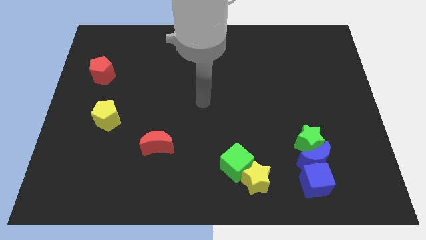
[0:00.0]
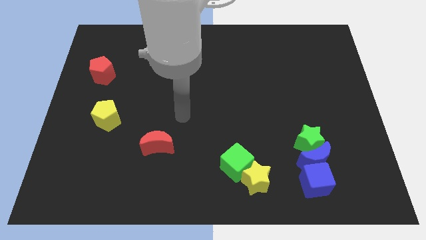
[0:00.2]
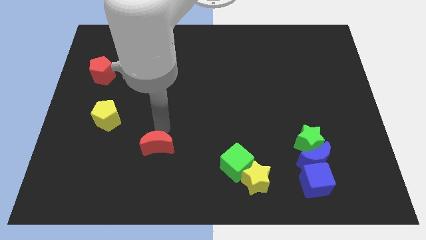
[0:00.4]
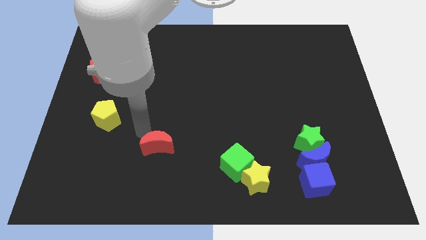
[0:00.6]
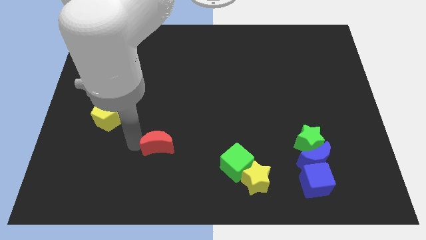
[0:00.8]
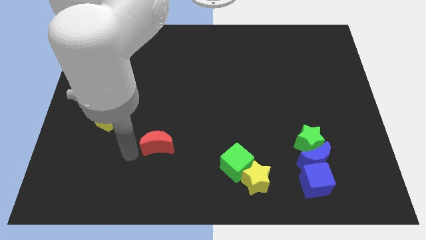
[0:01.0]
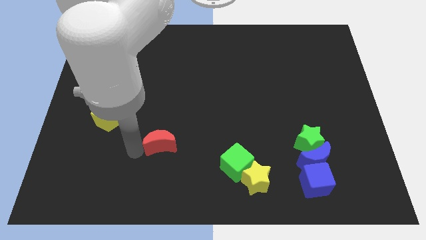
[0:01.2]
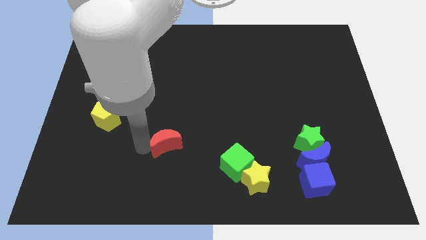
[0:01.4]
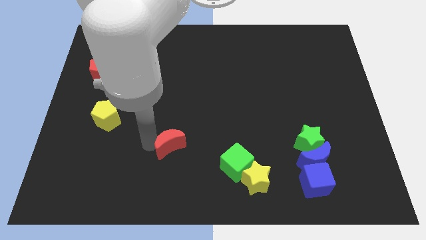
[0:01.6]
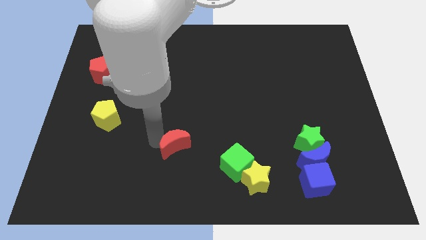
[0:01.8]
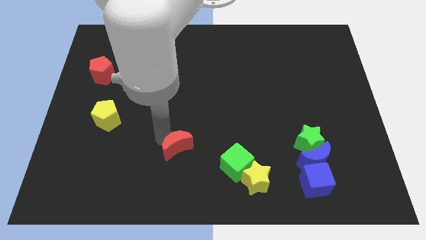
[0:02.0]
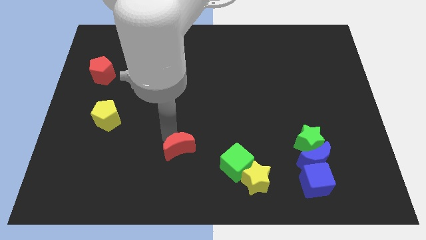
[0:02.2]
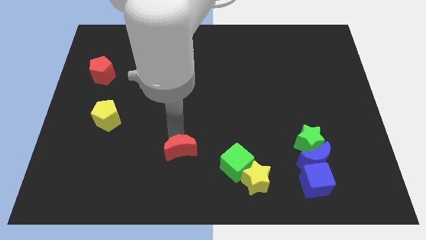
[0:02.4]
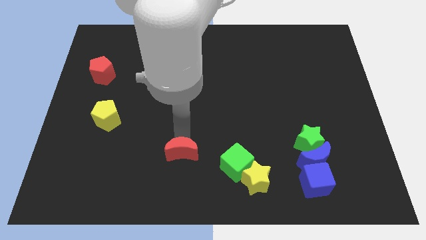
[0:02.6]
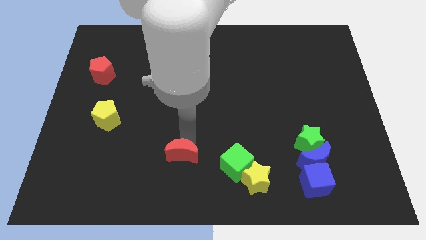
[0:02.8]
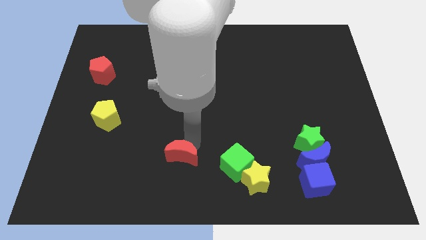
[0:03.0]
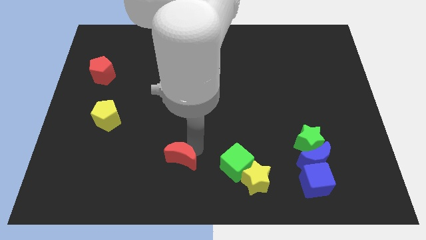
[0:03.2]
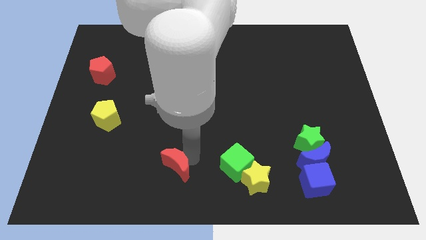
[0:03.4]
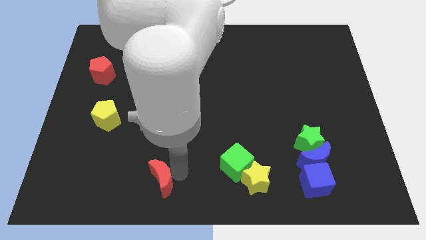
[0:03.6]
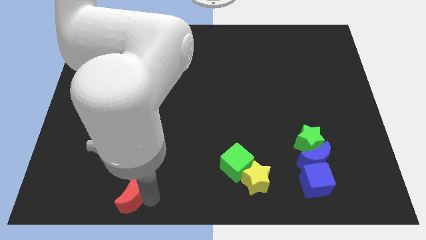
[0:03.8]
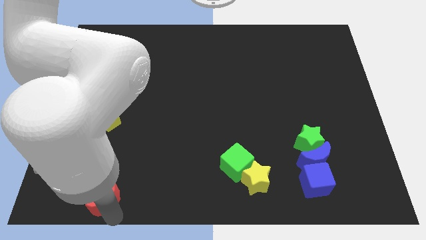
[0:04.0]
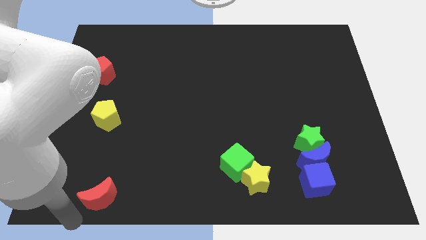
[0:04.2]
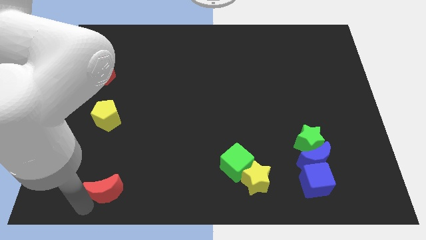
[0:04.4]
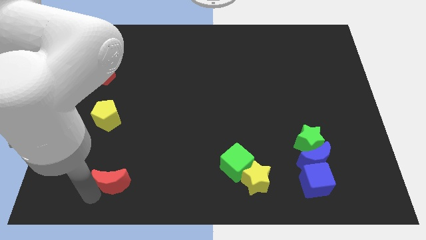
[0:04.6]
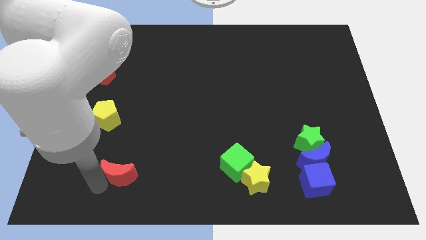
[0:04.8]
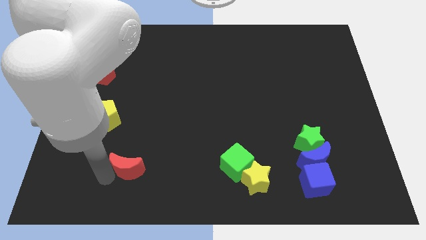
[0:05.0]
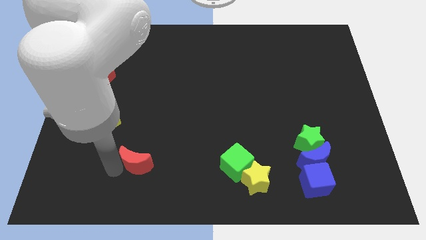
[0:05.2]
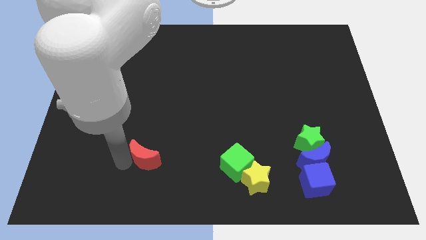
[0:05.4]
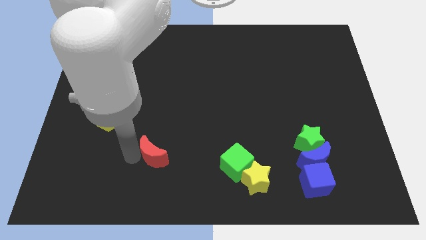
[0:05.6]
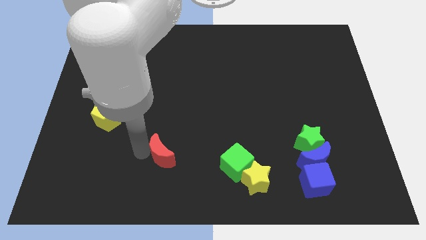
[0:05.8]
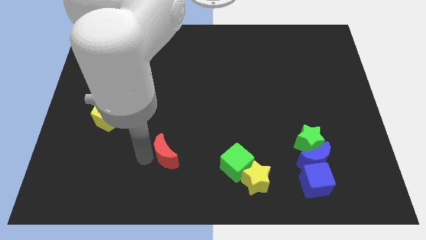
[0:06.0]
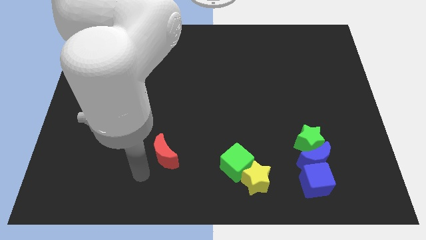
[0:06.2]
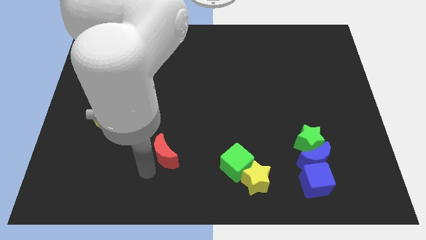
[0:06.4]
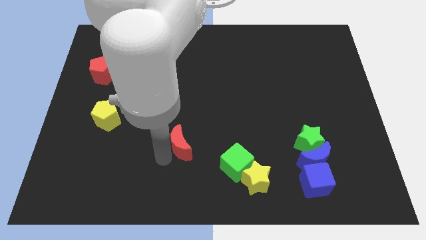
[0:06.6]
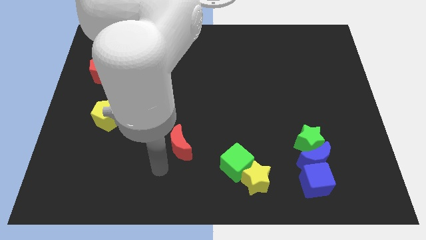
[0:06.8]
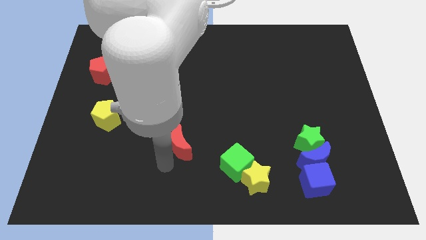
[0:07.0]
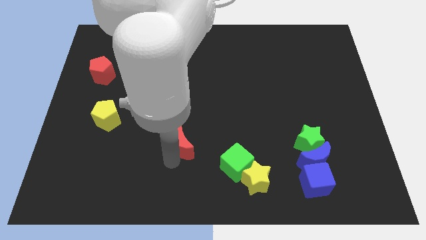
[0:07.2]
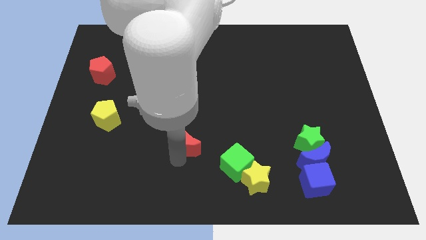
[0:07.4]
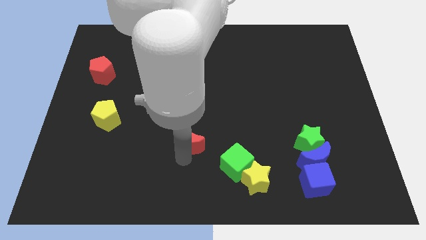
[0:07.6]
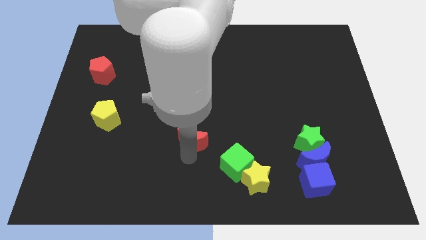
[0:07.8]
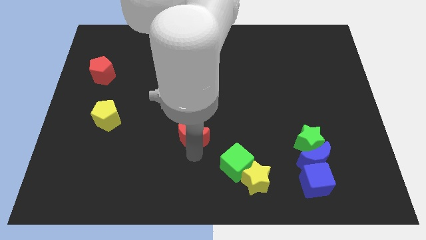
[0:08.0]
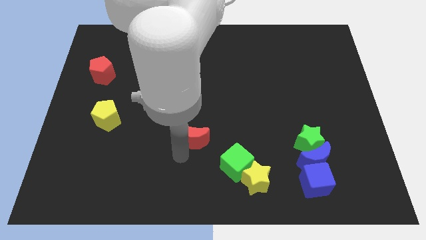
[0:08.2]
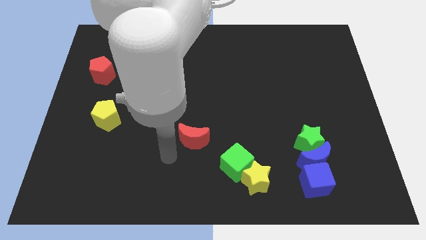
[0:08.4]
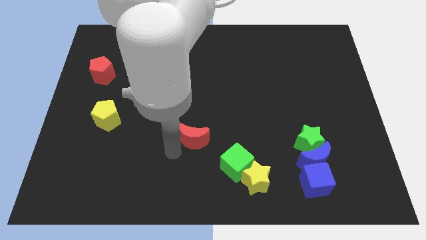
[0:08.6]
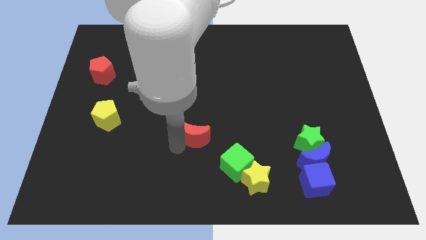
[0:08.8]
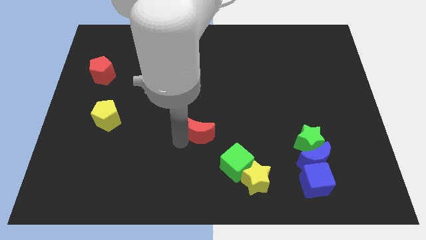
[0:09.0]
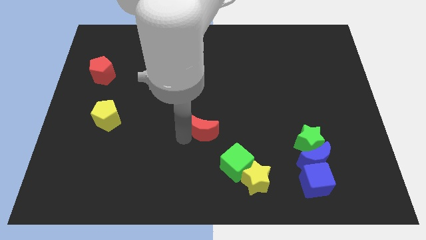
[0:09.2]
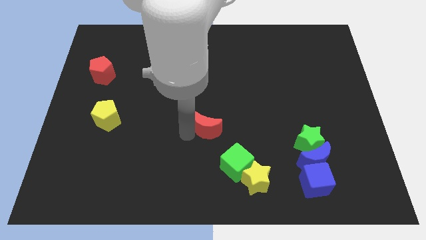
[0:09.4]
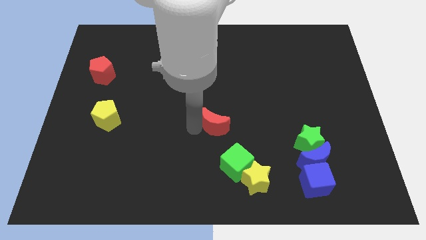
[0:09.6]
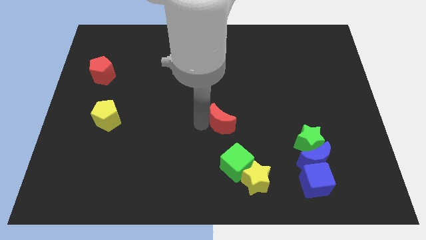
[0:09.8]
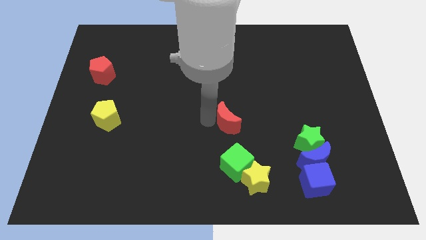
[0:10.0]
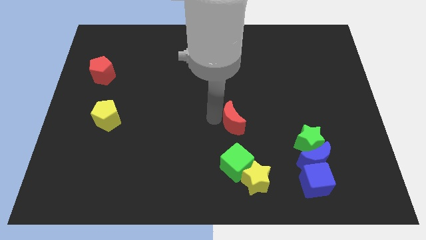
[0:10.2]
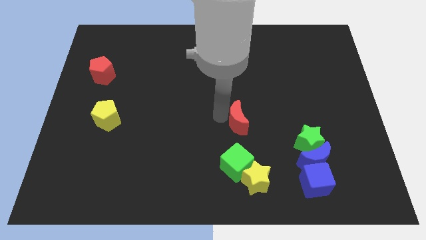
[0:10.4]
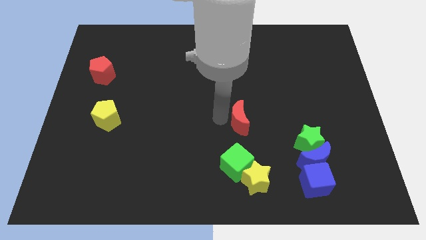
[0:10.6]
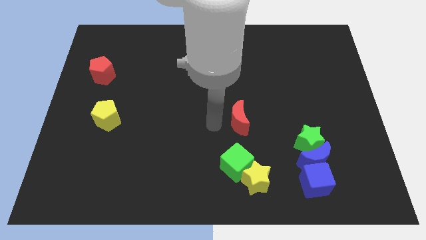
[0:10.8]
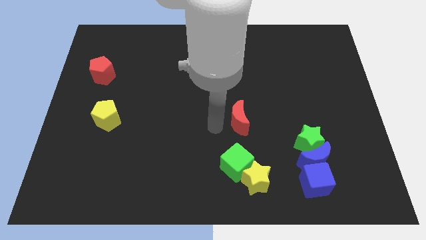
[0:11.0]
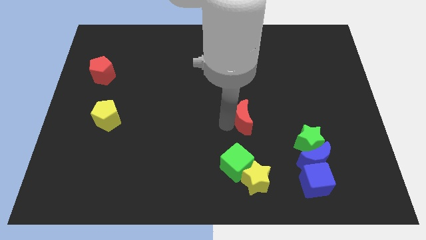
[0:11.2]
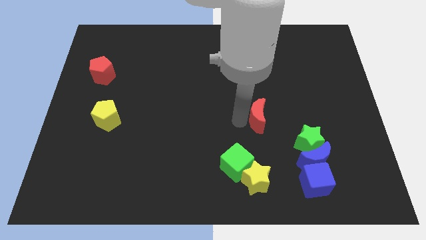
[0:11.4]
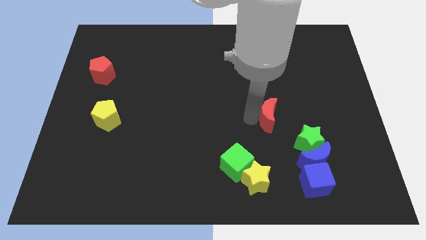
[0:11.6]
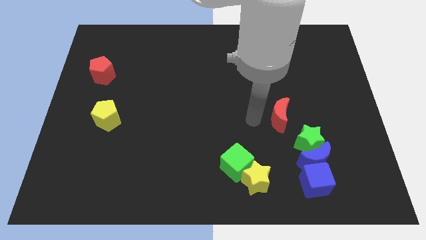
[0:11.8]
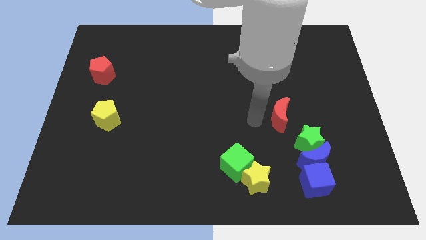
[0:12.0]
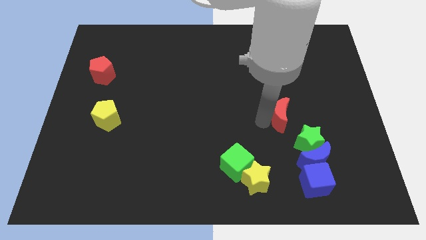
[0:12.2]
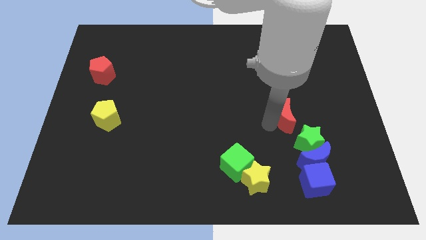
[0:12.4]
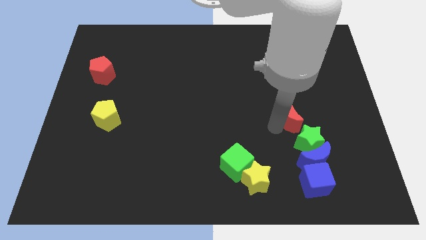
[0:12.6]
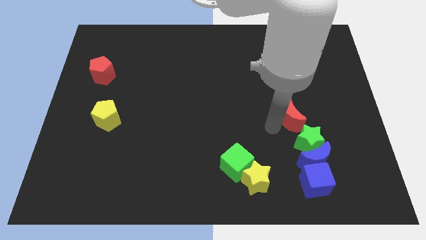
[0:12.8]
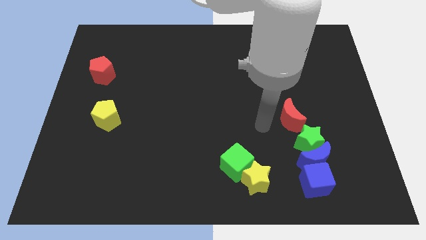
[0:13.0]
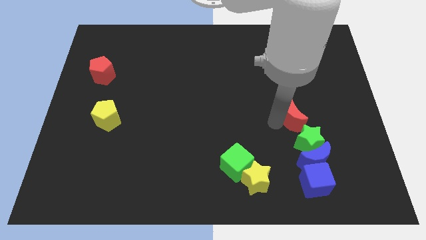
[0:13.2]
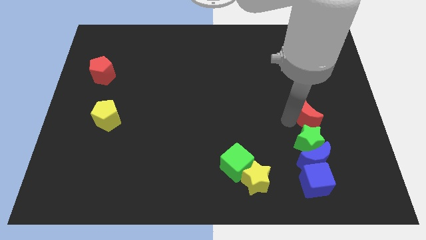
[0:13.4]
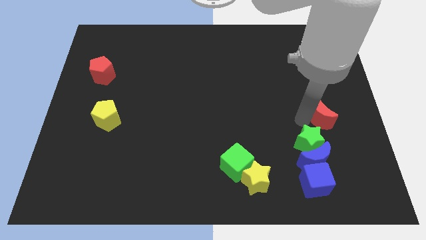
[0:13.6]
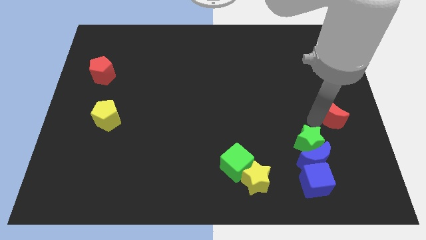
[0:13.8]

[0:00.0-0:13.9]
move the red moon to the right side of the board
